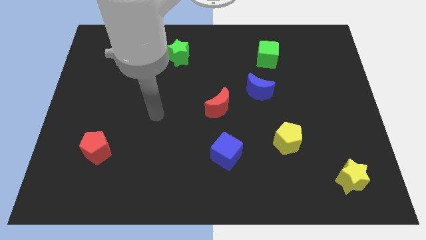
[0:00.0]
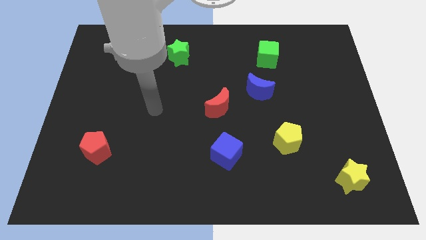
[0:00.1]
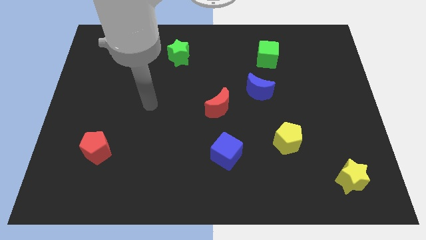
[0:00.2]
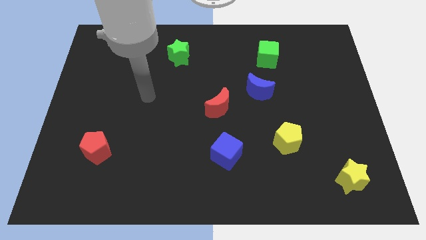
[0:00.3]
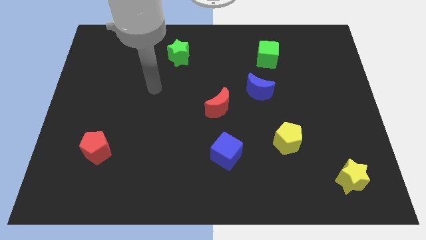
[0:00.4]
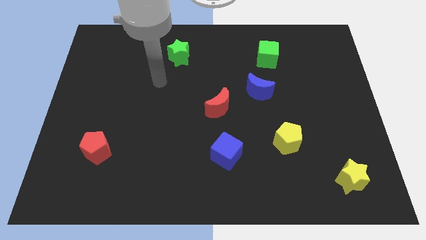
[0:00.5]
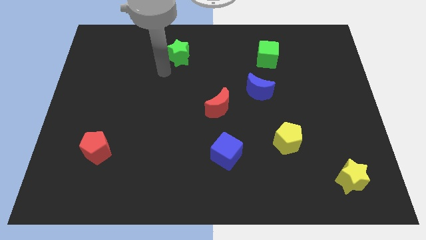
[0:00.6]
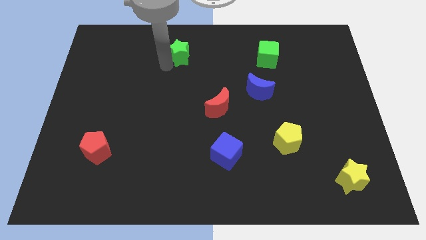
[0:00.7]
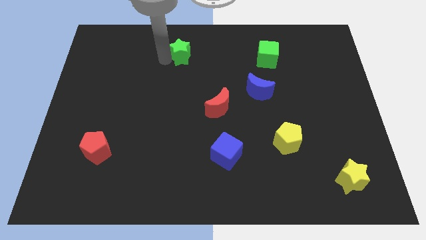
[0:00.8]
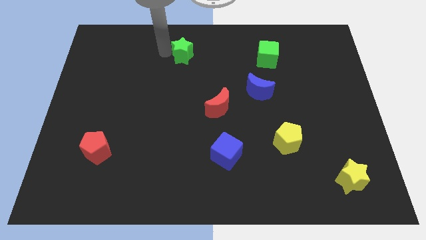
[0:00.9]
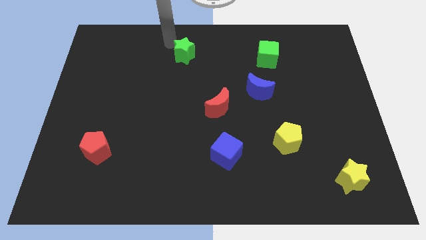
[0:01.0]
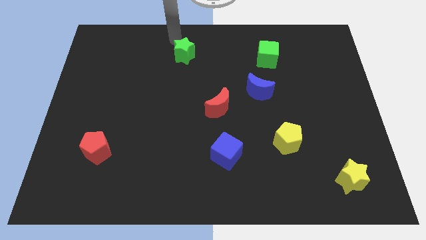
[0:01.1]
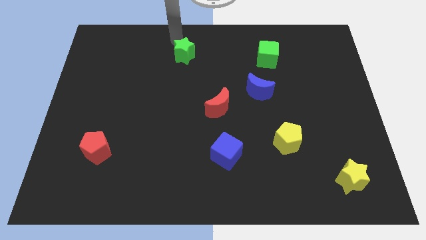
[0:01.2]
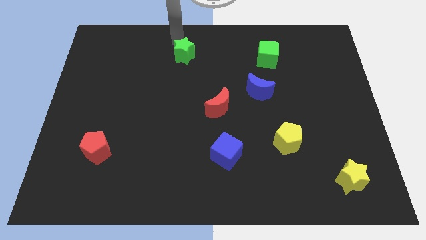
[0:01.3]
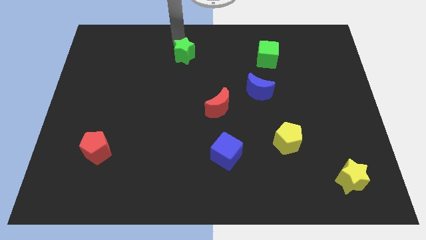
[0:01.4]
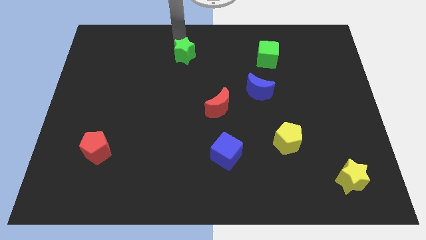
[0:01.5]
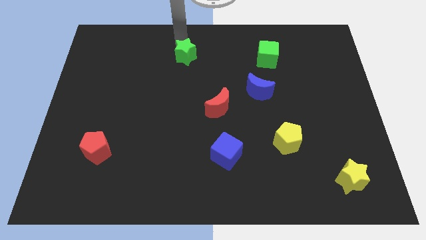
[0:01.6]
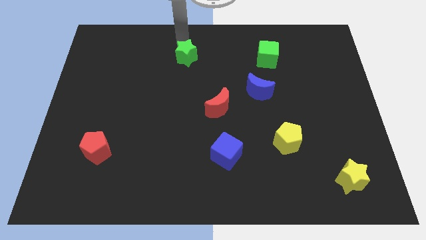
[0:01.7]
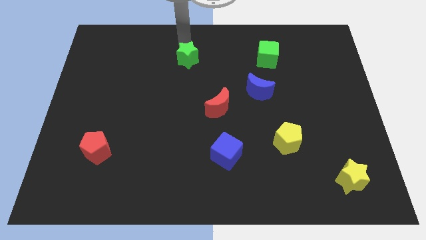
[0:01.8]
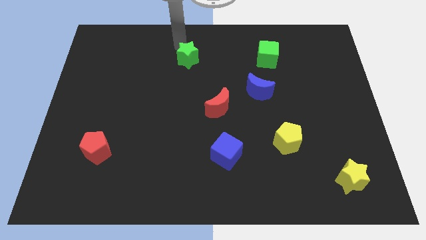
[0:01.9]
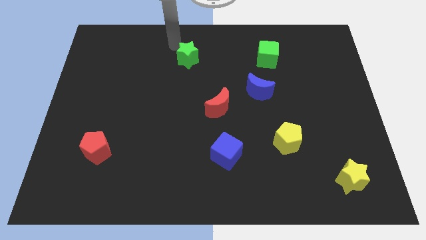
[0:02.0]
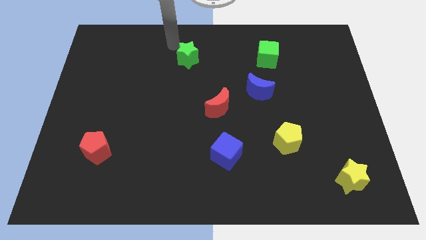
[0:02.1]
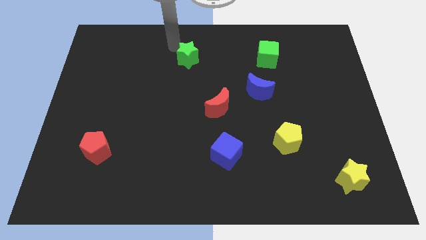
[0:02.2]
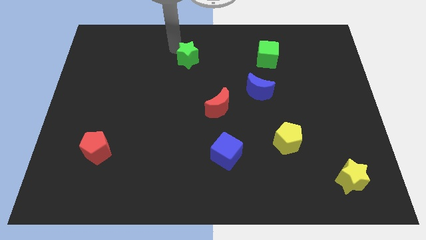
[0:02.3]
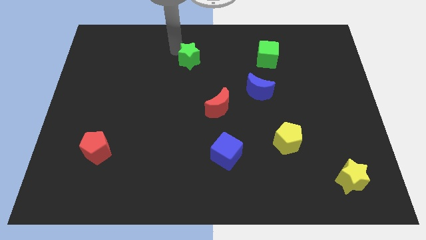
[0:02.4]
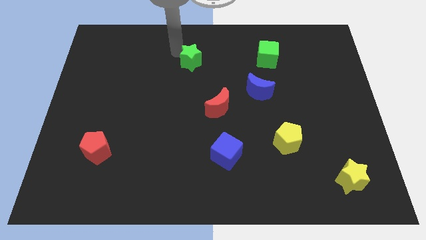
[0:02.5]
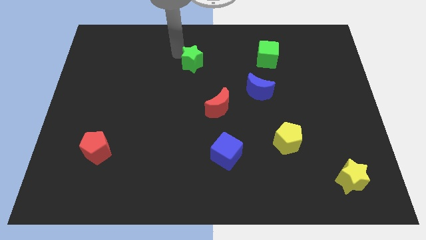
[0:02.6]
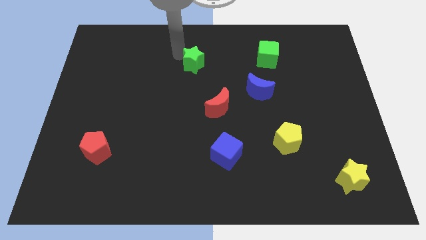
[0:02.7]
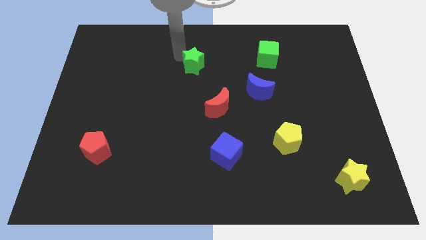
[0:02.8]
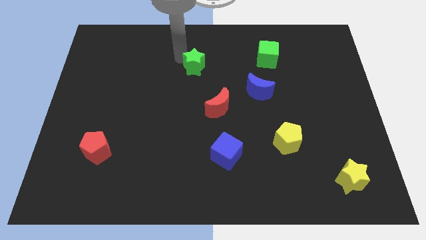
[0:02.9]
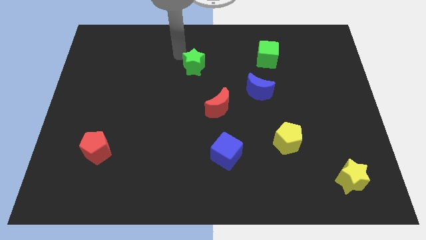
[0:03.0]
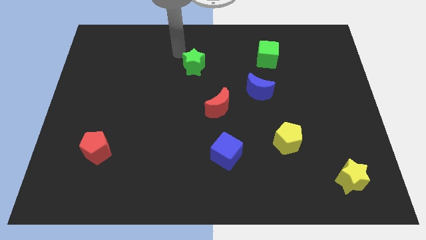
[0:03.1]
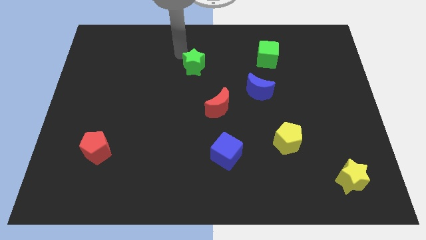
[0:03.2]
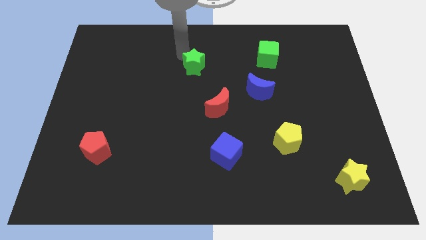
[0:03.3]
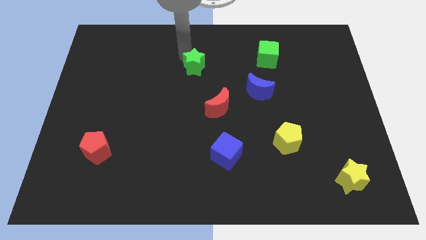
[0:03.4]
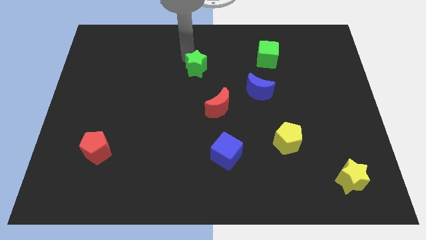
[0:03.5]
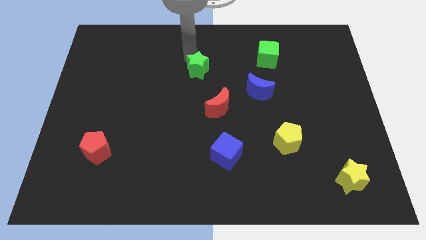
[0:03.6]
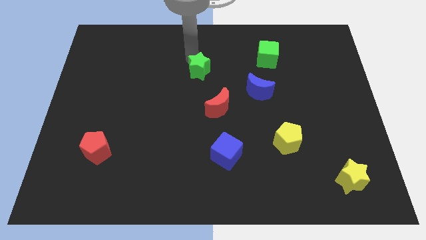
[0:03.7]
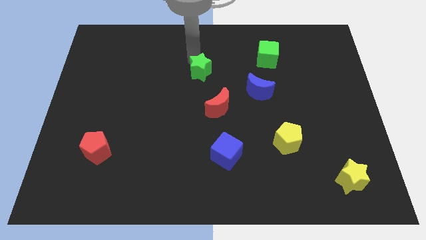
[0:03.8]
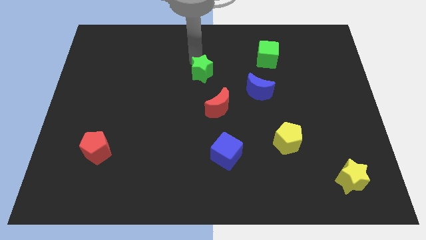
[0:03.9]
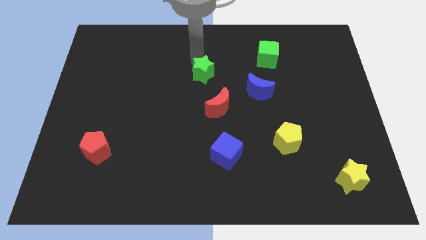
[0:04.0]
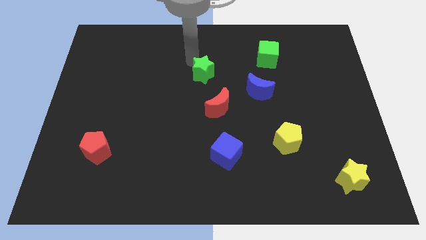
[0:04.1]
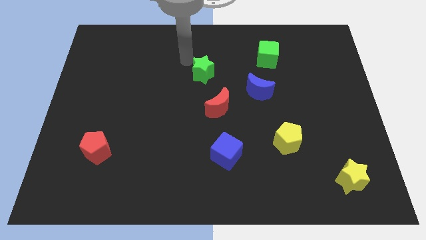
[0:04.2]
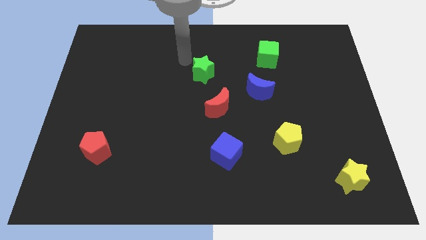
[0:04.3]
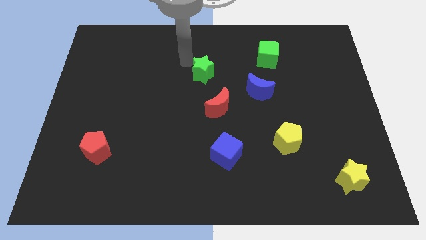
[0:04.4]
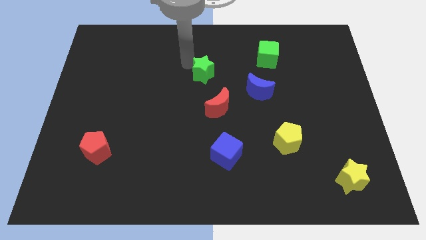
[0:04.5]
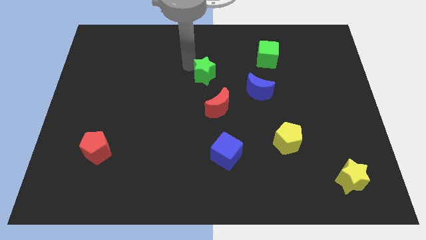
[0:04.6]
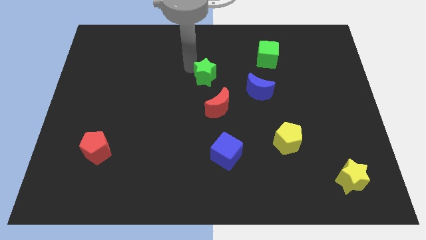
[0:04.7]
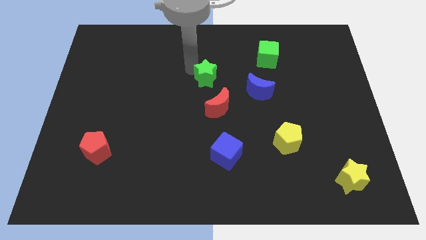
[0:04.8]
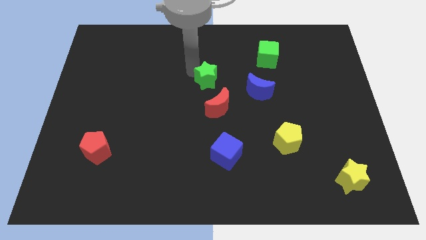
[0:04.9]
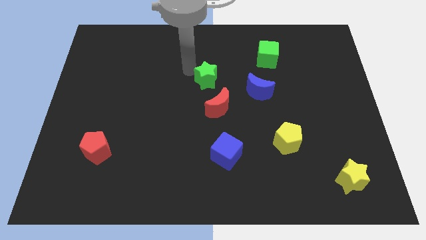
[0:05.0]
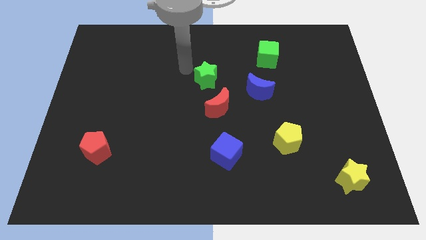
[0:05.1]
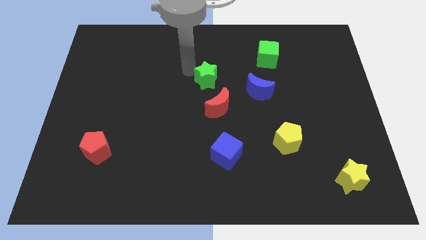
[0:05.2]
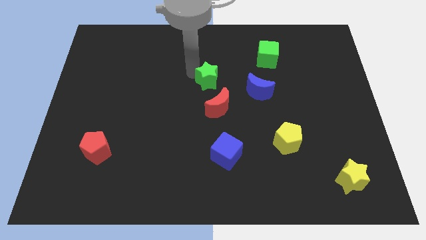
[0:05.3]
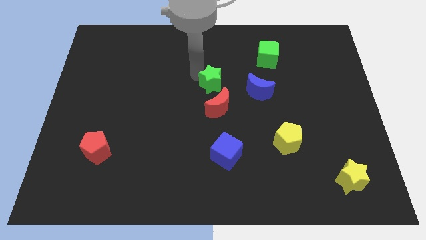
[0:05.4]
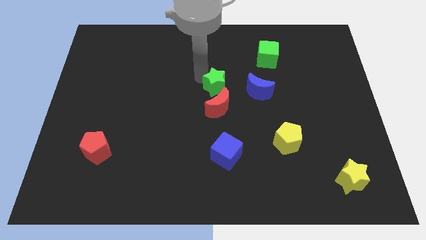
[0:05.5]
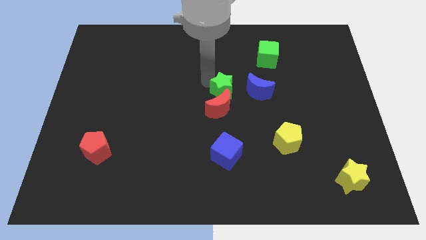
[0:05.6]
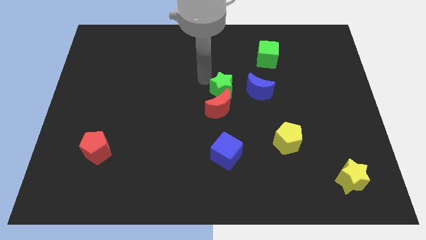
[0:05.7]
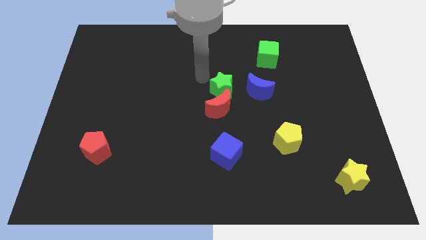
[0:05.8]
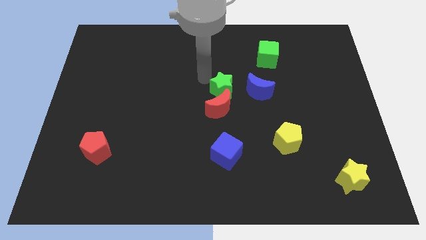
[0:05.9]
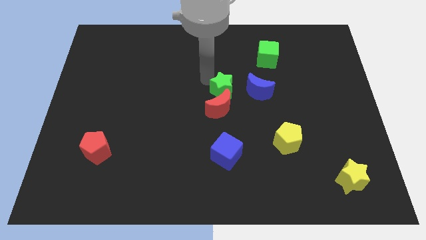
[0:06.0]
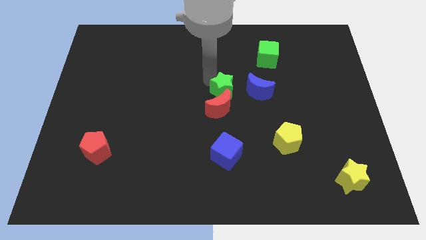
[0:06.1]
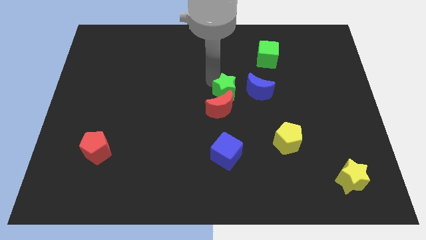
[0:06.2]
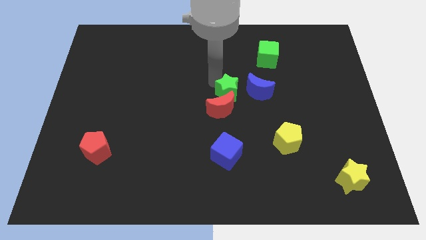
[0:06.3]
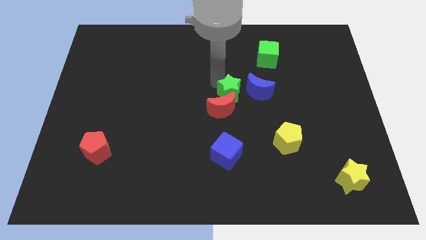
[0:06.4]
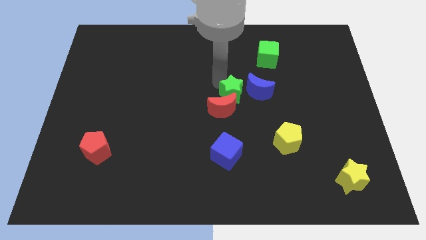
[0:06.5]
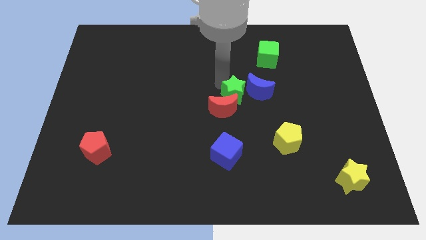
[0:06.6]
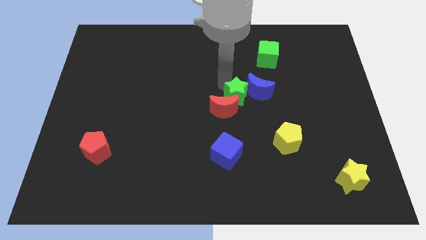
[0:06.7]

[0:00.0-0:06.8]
move the green star down and right

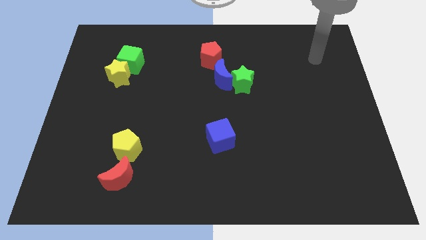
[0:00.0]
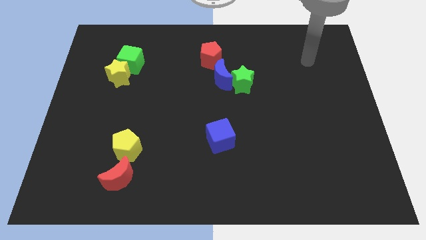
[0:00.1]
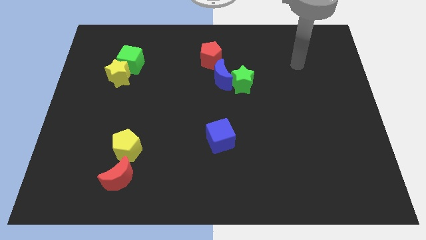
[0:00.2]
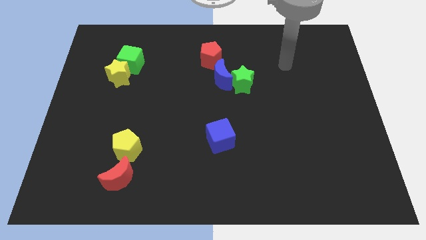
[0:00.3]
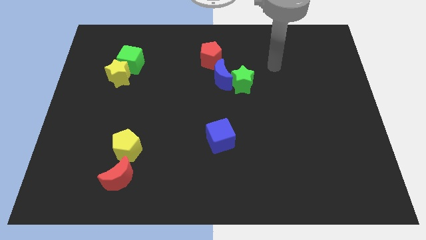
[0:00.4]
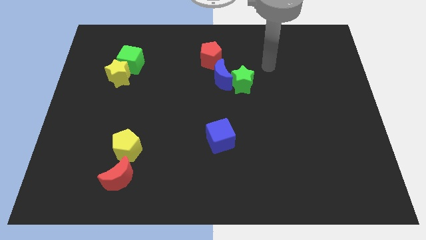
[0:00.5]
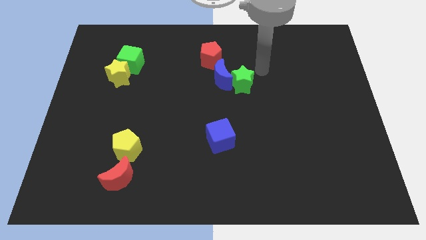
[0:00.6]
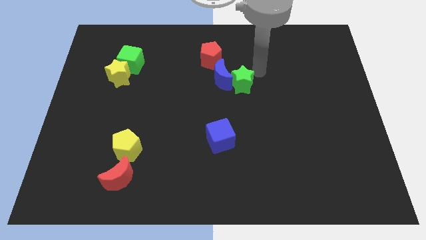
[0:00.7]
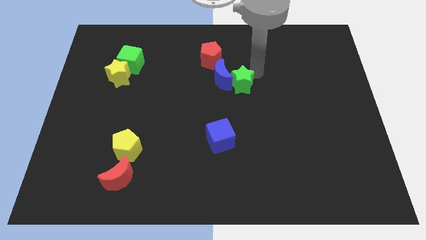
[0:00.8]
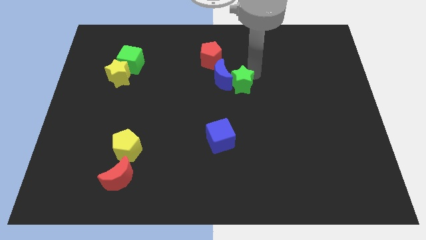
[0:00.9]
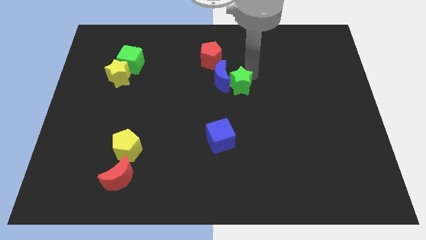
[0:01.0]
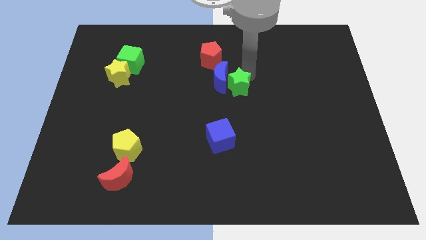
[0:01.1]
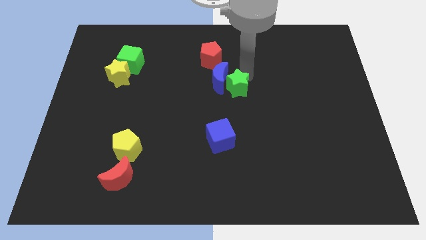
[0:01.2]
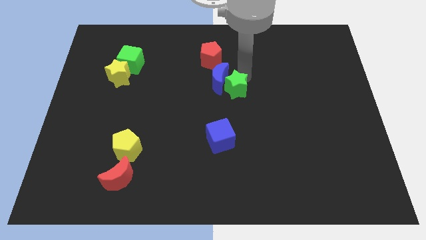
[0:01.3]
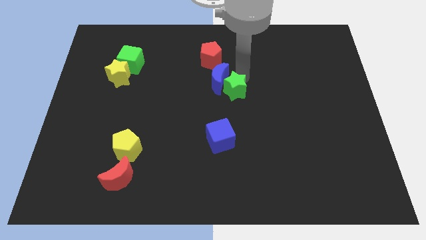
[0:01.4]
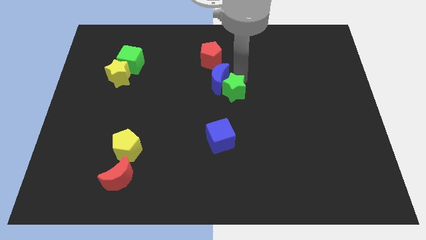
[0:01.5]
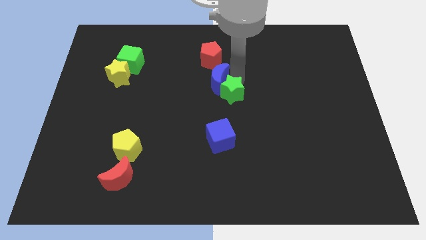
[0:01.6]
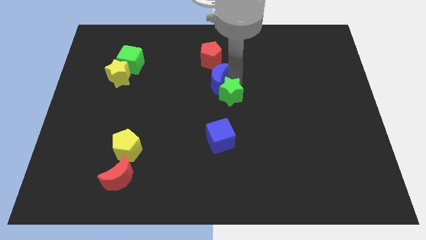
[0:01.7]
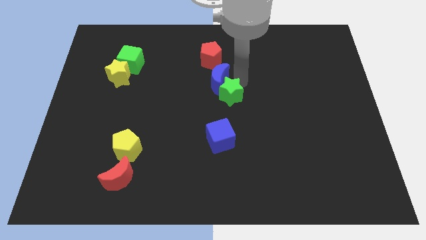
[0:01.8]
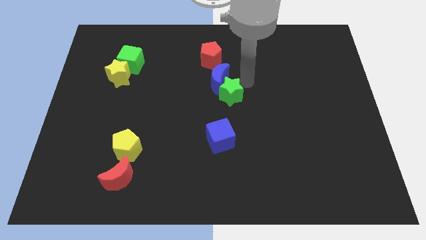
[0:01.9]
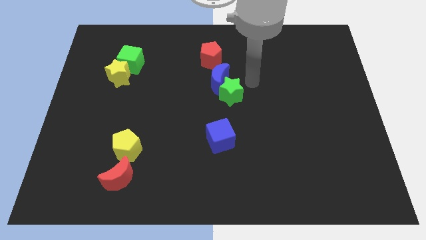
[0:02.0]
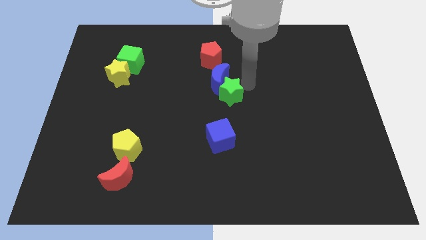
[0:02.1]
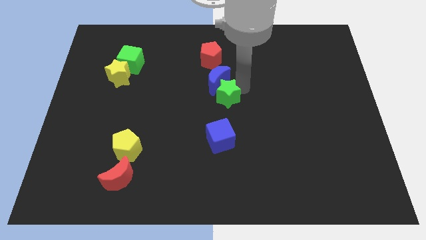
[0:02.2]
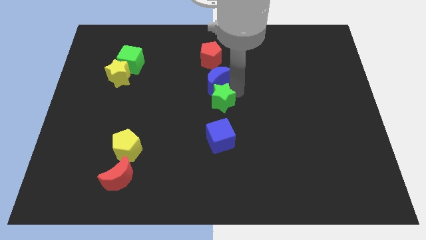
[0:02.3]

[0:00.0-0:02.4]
push the green star slightly downwards and to the left diagonally
